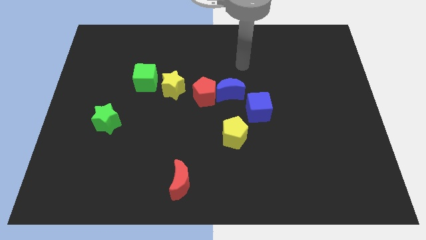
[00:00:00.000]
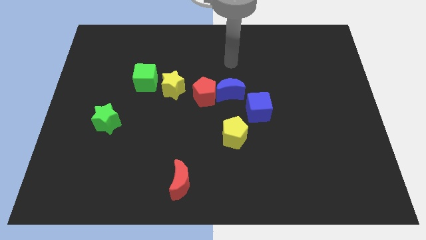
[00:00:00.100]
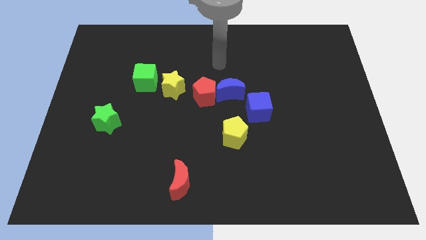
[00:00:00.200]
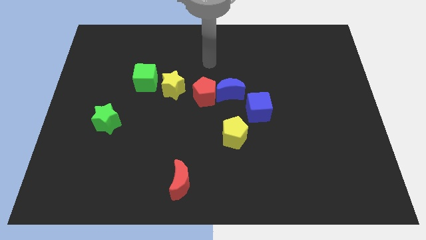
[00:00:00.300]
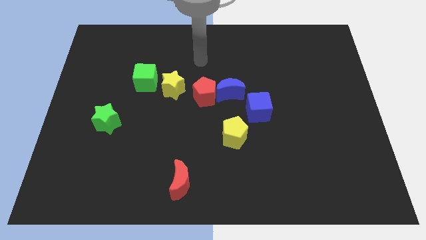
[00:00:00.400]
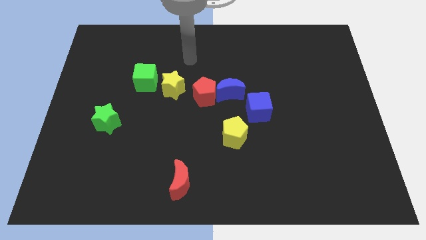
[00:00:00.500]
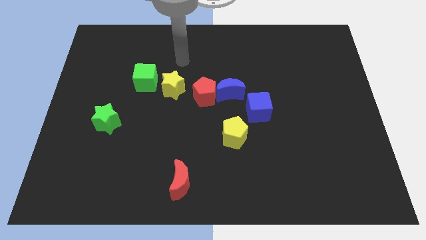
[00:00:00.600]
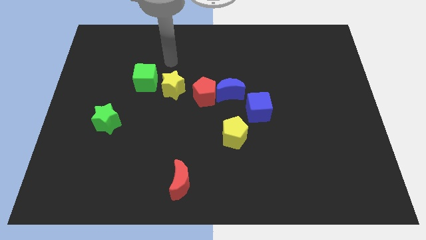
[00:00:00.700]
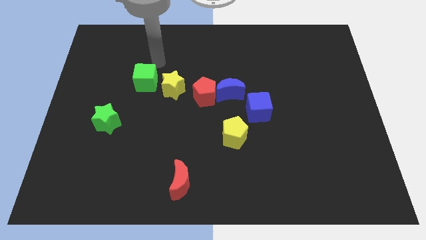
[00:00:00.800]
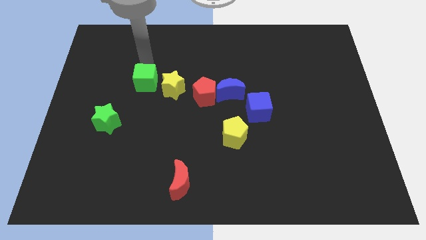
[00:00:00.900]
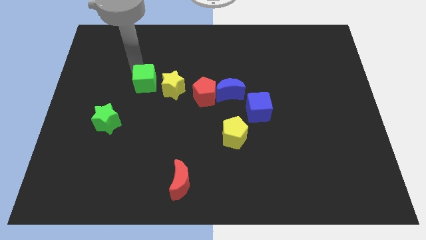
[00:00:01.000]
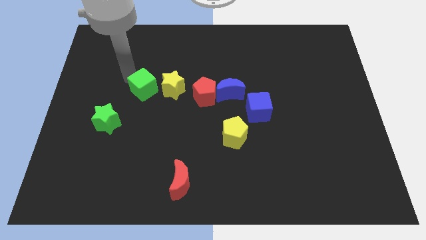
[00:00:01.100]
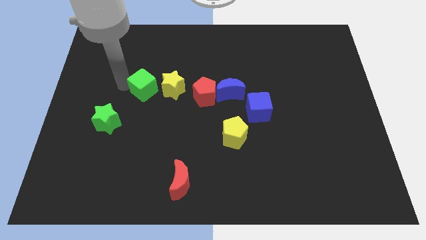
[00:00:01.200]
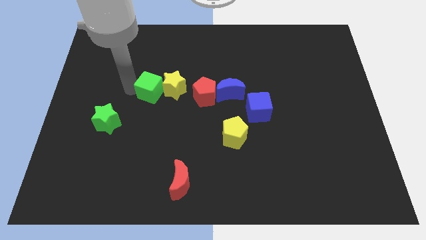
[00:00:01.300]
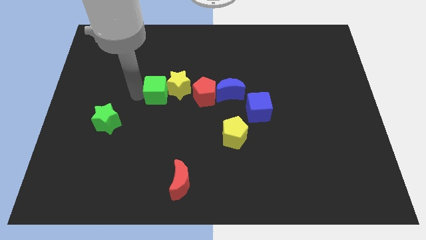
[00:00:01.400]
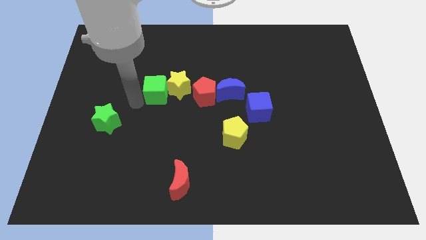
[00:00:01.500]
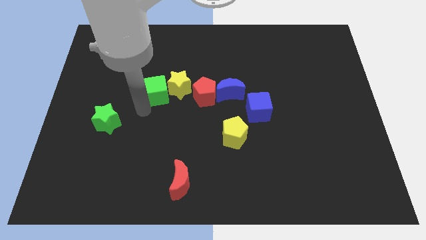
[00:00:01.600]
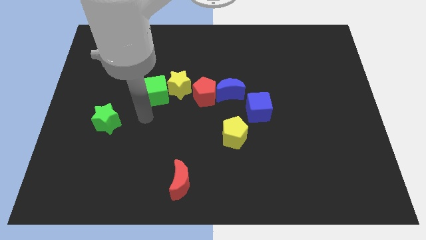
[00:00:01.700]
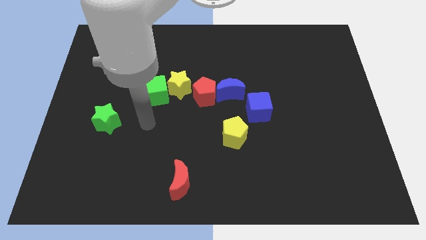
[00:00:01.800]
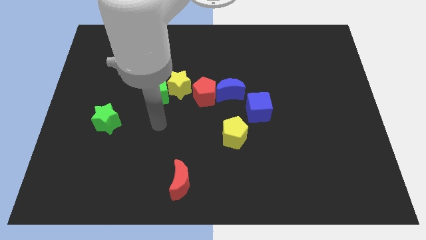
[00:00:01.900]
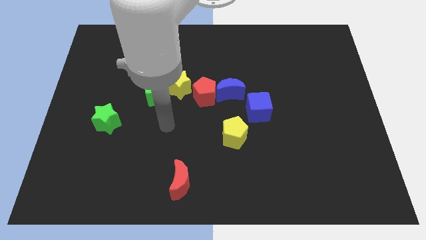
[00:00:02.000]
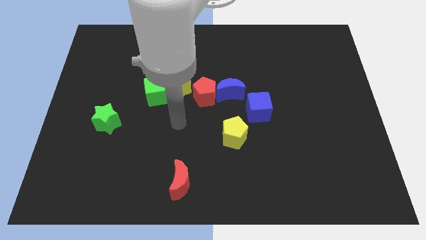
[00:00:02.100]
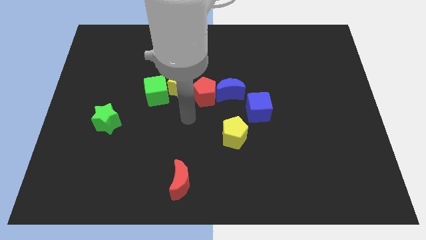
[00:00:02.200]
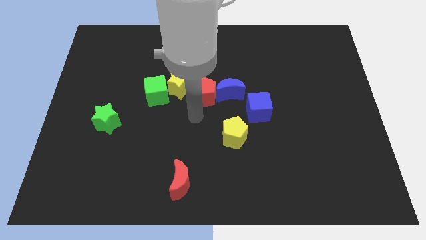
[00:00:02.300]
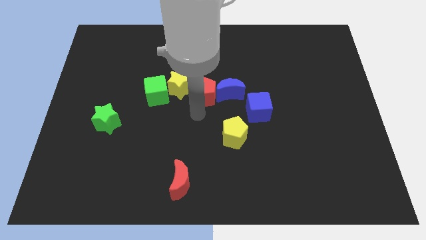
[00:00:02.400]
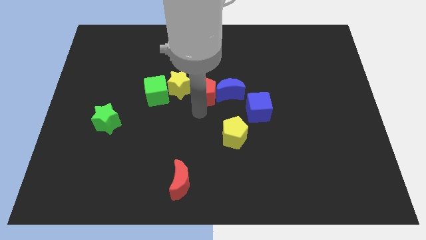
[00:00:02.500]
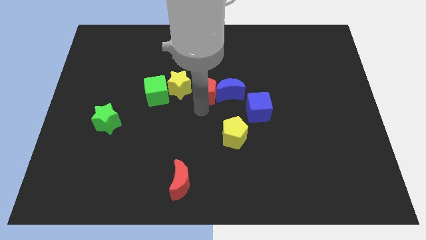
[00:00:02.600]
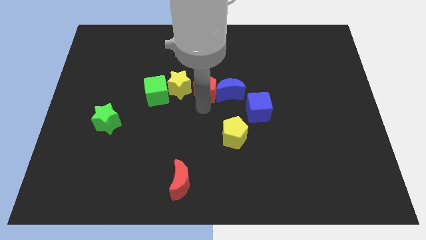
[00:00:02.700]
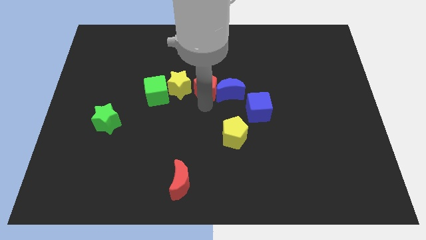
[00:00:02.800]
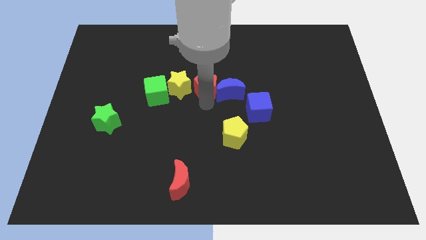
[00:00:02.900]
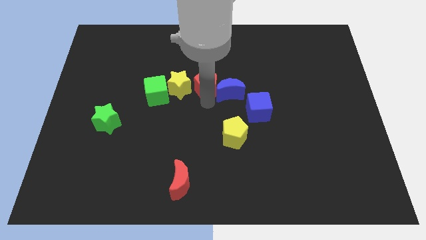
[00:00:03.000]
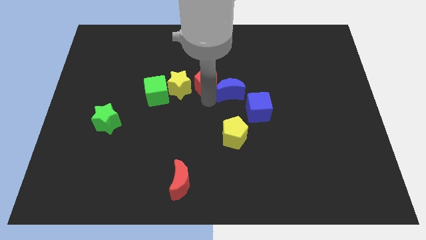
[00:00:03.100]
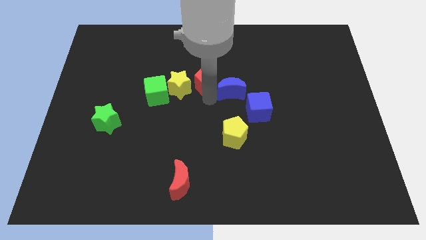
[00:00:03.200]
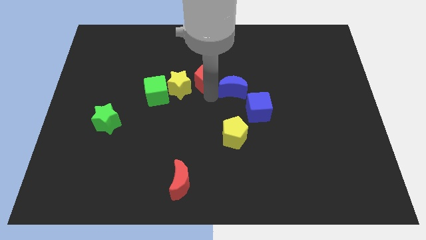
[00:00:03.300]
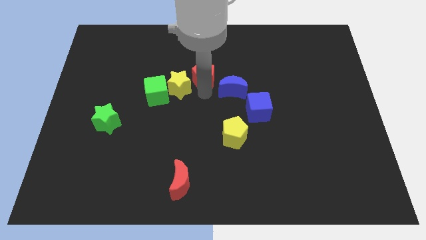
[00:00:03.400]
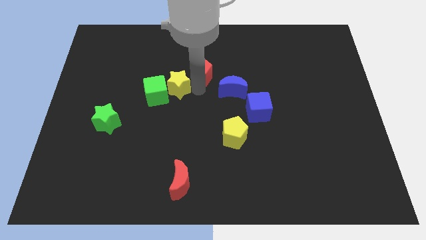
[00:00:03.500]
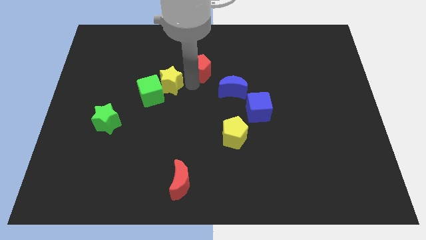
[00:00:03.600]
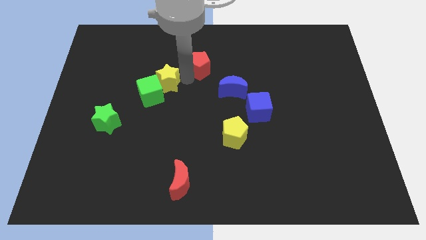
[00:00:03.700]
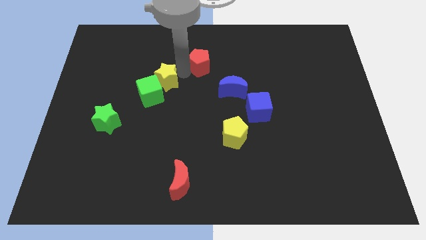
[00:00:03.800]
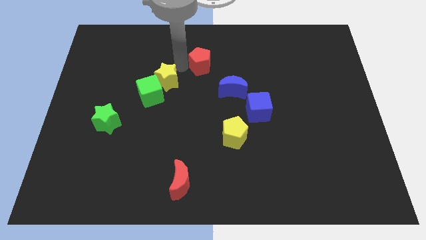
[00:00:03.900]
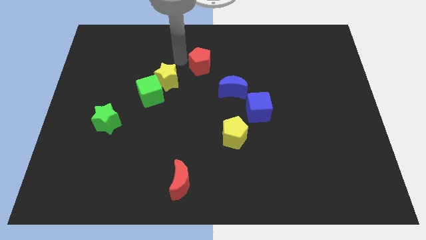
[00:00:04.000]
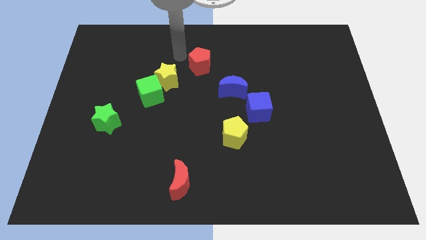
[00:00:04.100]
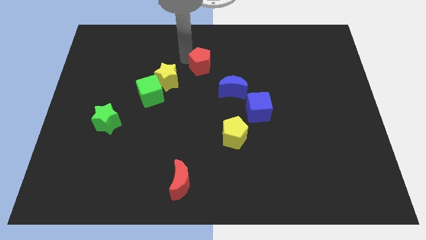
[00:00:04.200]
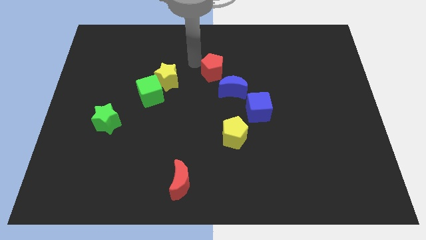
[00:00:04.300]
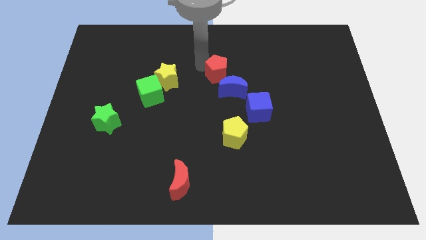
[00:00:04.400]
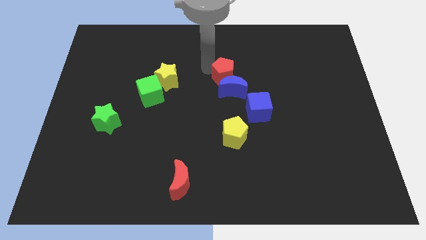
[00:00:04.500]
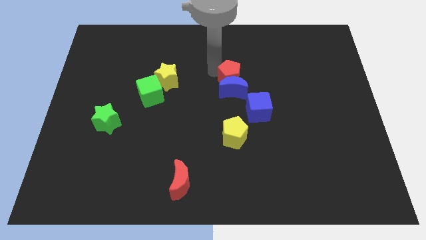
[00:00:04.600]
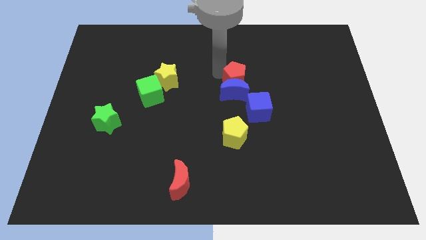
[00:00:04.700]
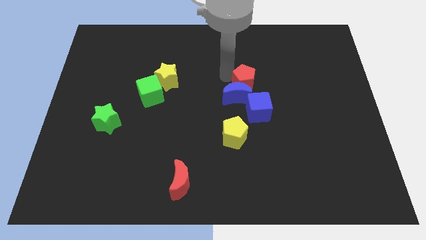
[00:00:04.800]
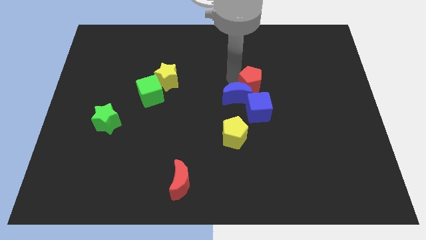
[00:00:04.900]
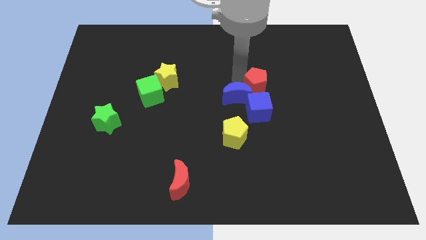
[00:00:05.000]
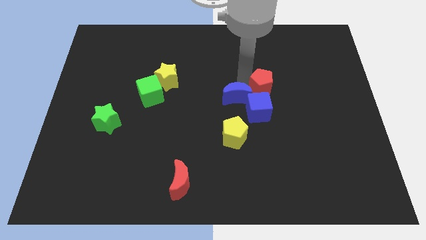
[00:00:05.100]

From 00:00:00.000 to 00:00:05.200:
put the red pentagon diagonally up and to the right of the blue cube

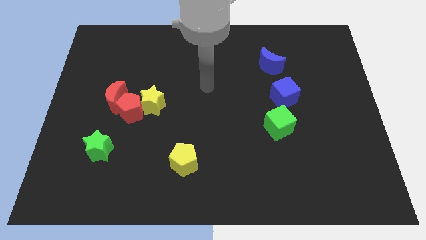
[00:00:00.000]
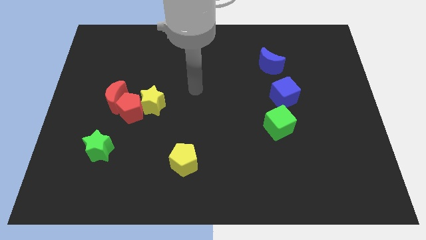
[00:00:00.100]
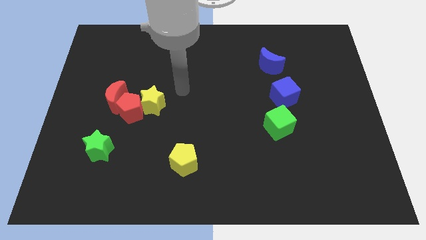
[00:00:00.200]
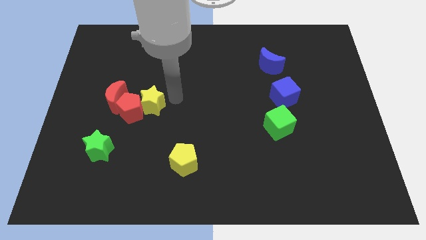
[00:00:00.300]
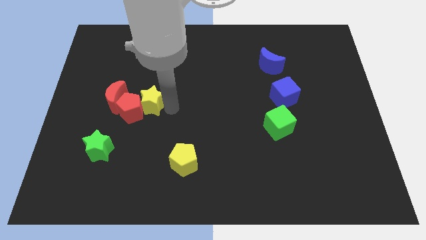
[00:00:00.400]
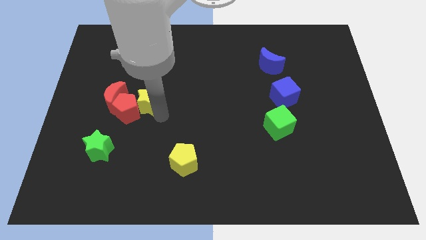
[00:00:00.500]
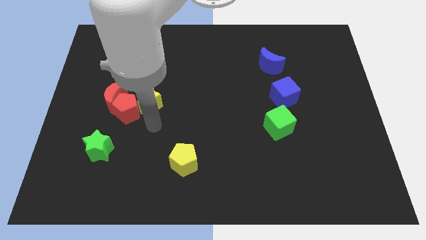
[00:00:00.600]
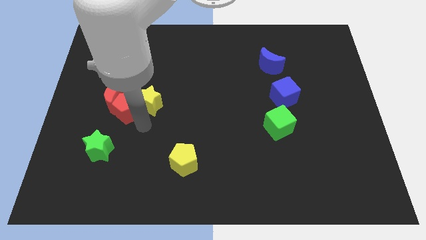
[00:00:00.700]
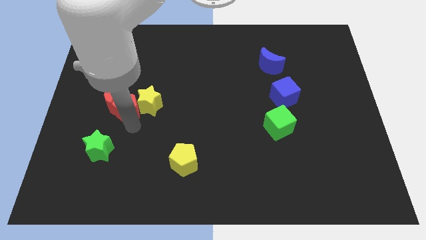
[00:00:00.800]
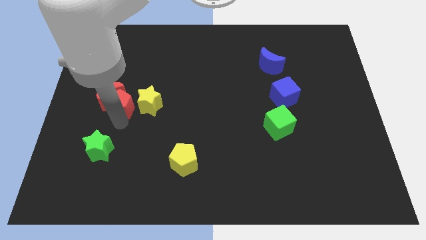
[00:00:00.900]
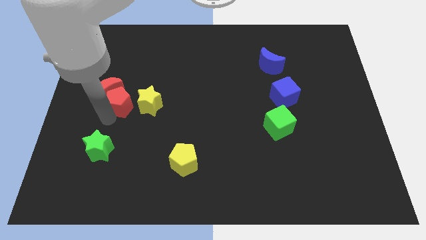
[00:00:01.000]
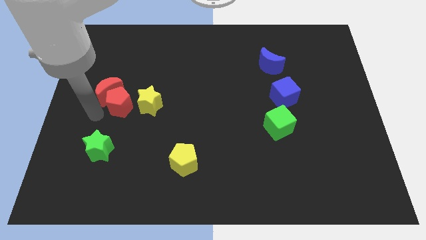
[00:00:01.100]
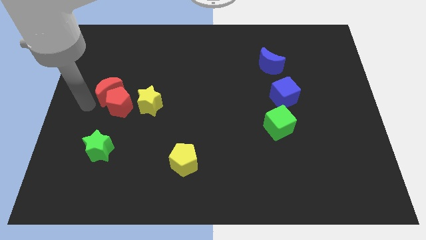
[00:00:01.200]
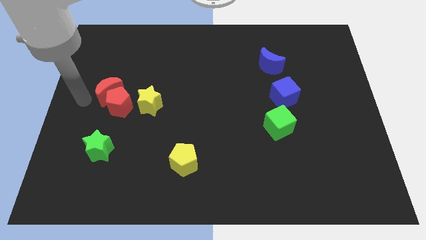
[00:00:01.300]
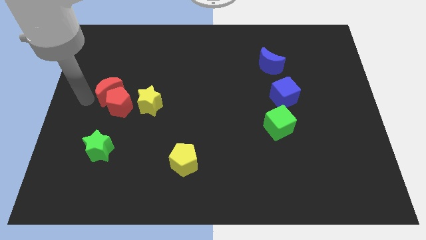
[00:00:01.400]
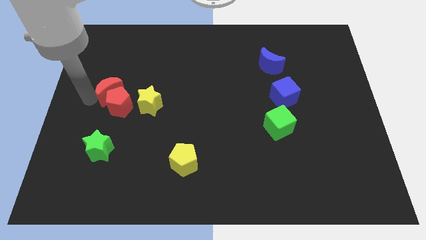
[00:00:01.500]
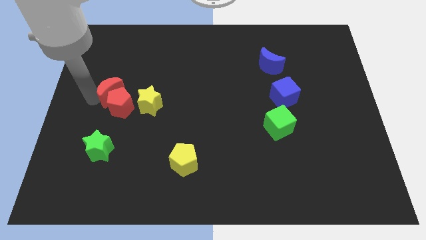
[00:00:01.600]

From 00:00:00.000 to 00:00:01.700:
slide the red moon diagonally up and to the left of the yellow star
